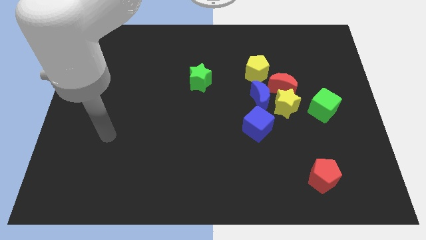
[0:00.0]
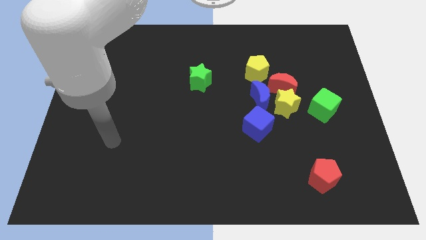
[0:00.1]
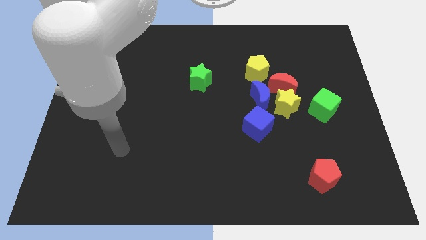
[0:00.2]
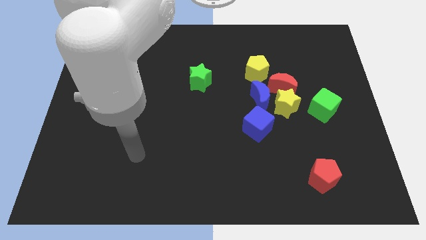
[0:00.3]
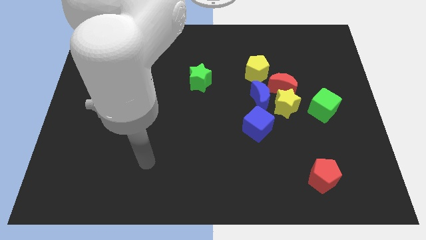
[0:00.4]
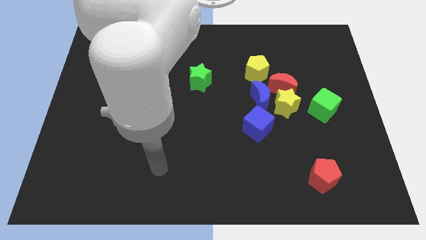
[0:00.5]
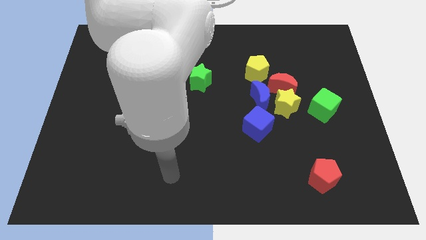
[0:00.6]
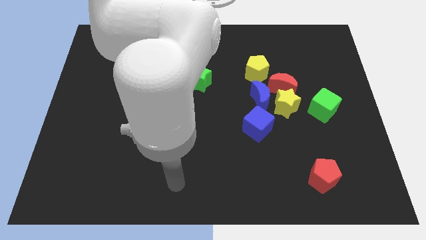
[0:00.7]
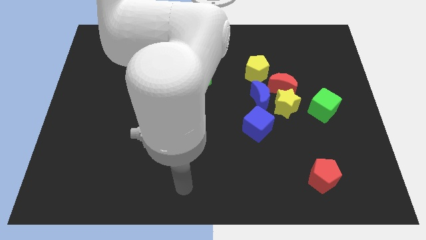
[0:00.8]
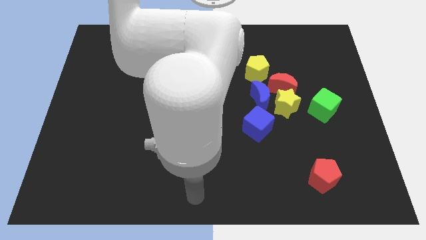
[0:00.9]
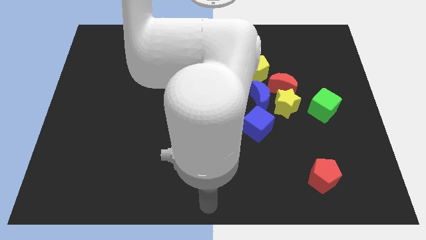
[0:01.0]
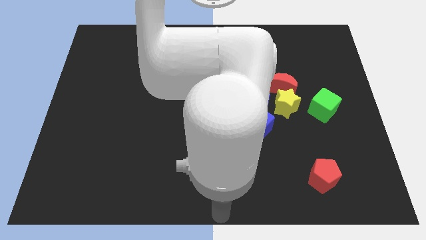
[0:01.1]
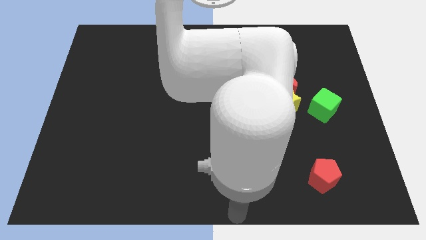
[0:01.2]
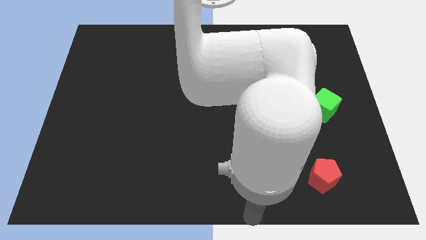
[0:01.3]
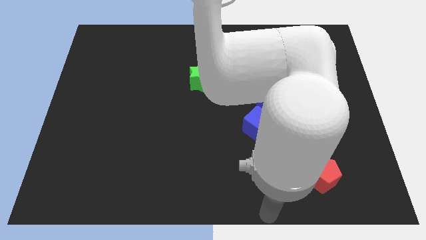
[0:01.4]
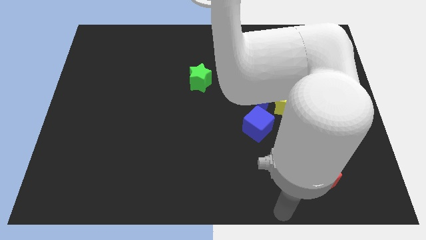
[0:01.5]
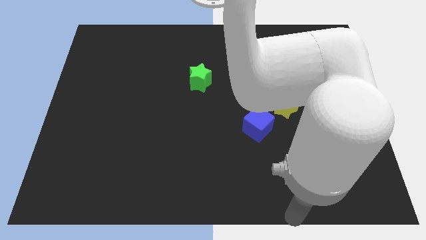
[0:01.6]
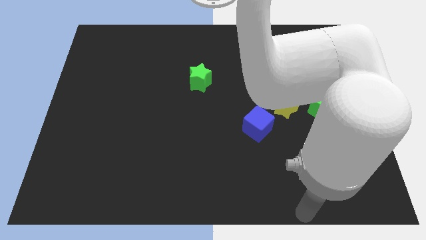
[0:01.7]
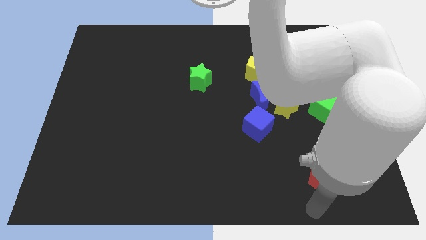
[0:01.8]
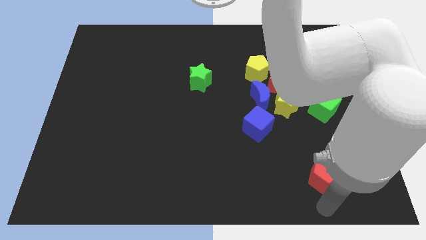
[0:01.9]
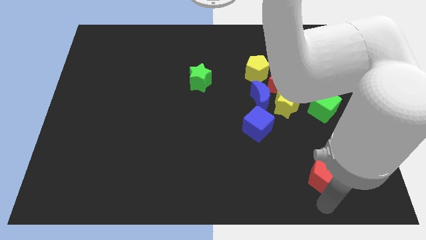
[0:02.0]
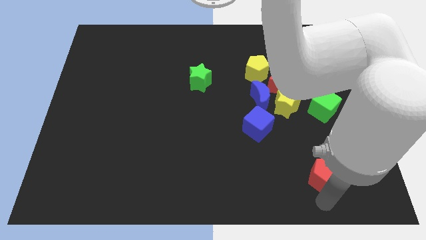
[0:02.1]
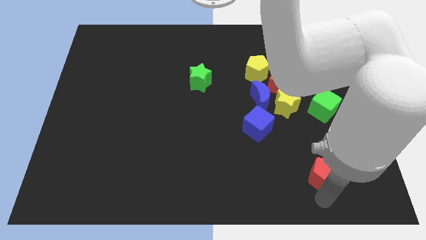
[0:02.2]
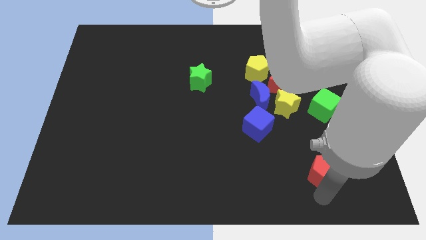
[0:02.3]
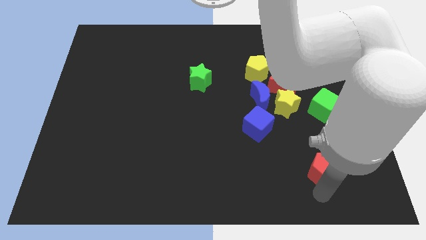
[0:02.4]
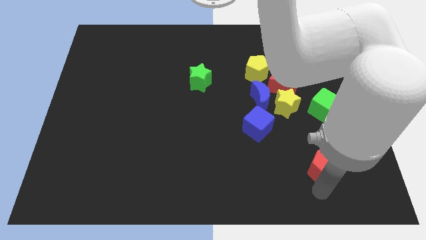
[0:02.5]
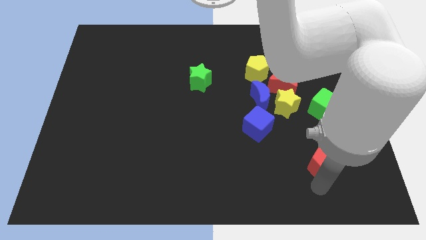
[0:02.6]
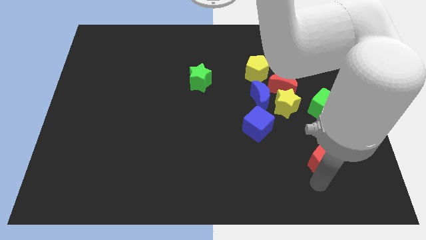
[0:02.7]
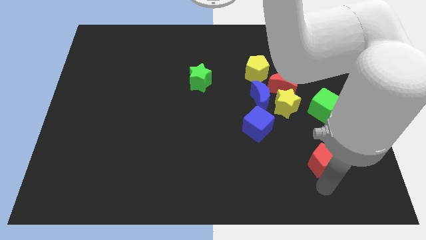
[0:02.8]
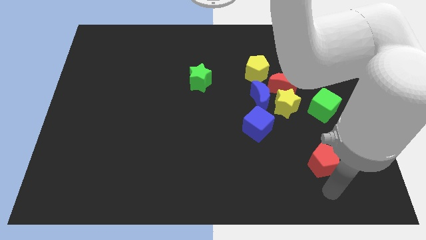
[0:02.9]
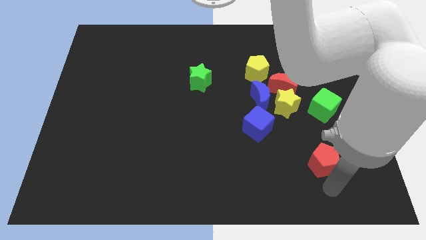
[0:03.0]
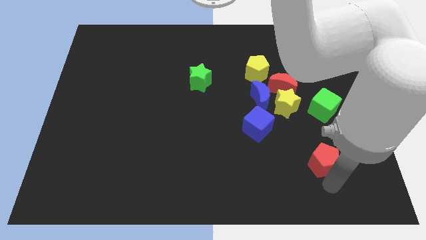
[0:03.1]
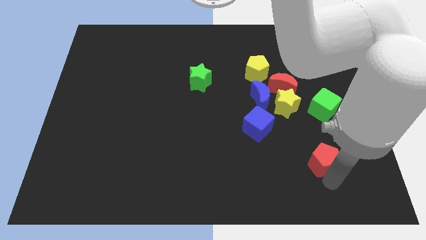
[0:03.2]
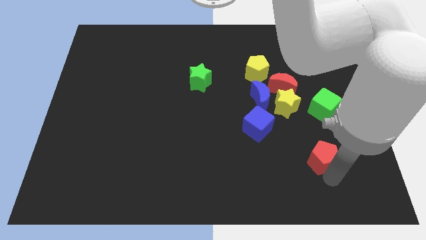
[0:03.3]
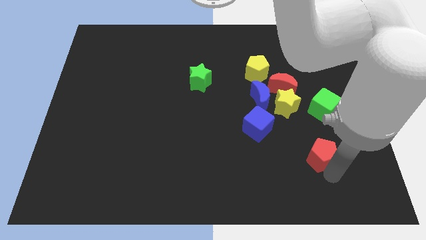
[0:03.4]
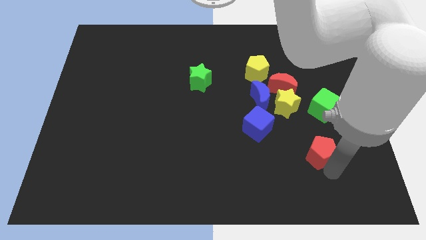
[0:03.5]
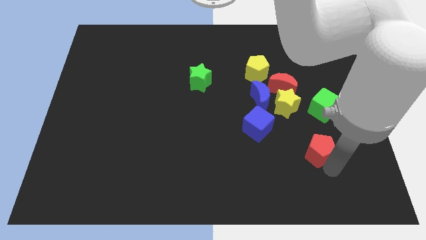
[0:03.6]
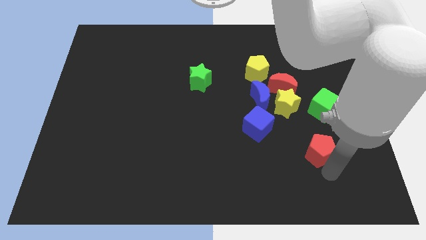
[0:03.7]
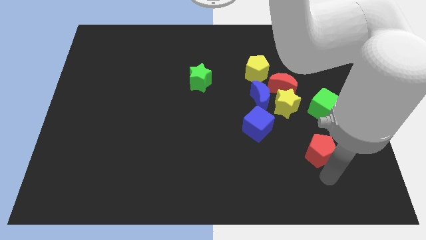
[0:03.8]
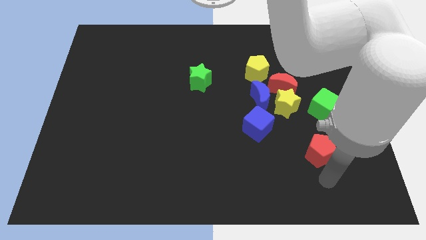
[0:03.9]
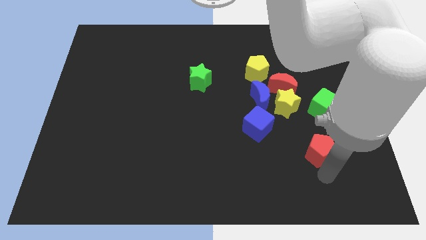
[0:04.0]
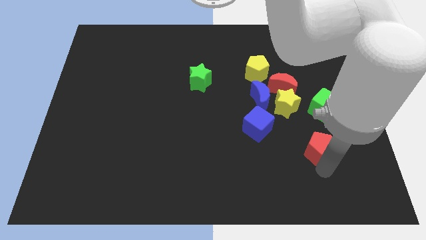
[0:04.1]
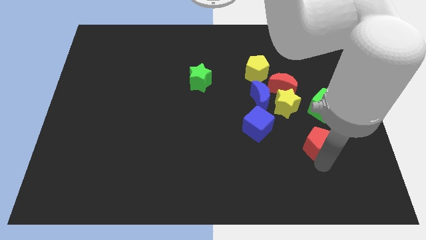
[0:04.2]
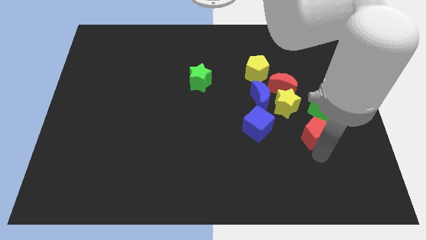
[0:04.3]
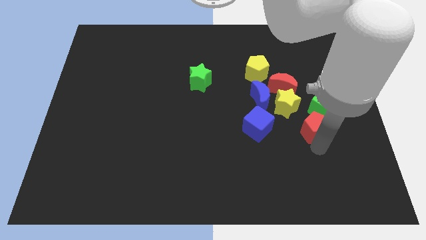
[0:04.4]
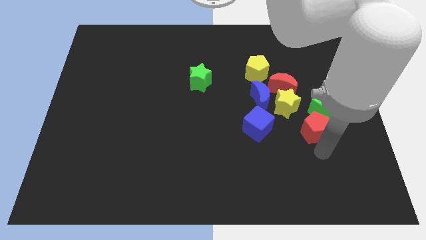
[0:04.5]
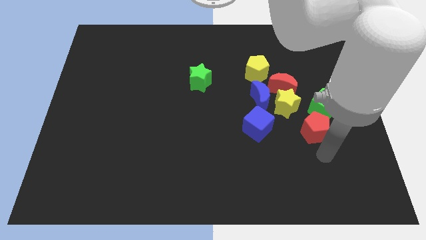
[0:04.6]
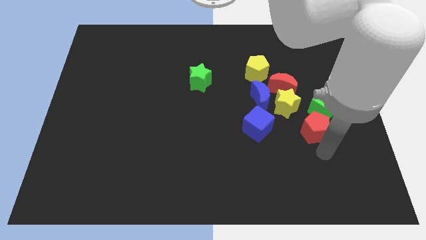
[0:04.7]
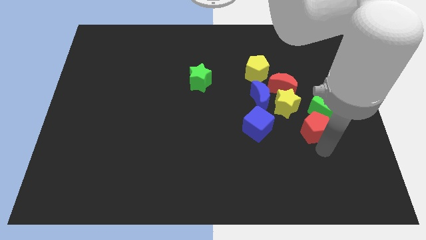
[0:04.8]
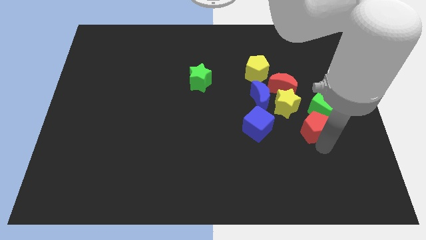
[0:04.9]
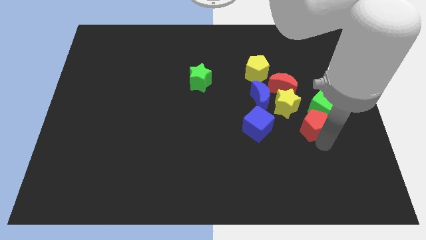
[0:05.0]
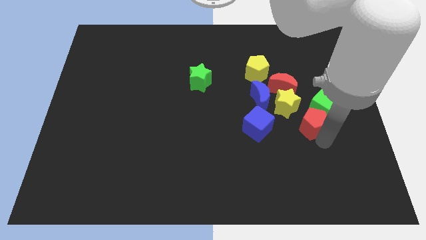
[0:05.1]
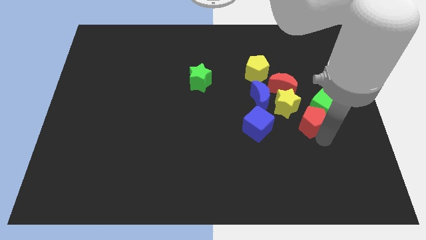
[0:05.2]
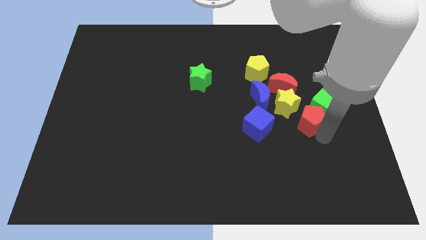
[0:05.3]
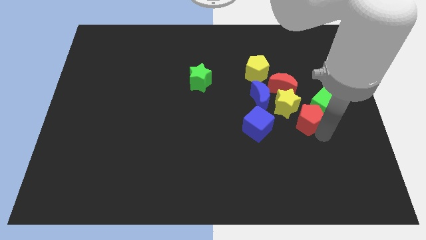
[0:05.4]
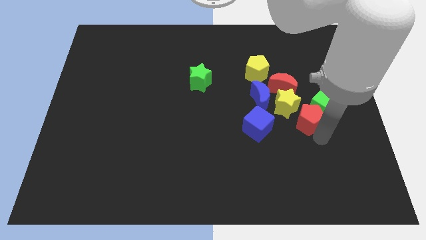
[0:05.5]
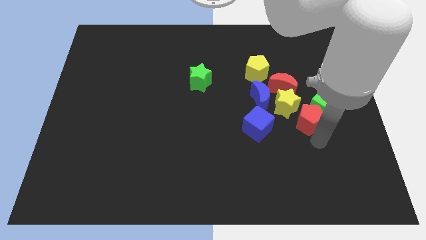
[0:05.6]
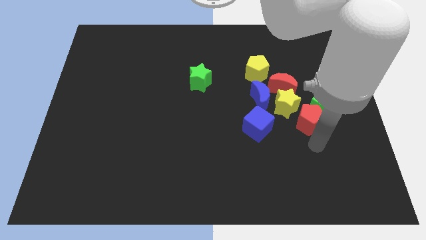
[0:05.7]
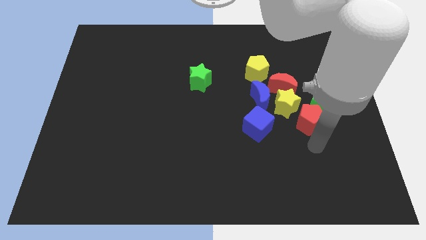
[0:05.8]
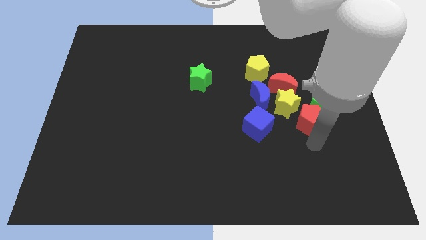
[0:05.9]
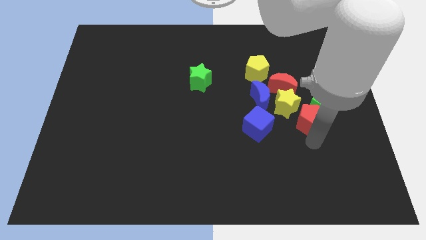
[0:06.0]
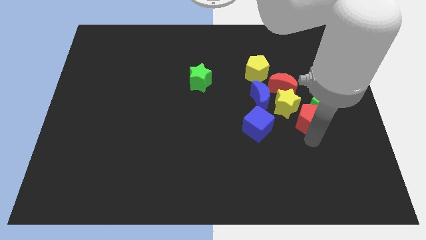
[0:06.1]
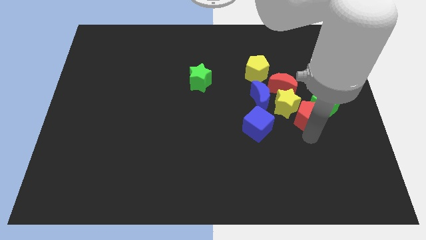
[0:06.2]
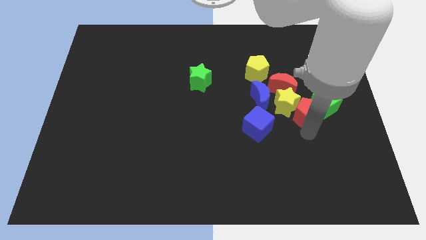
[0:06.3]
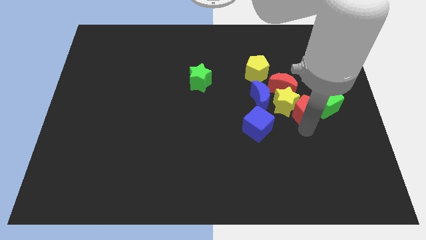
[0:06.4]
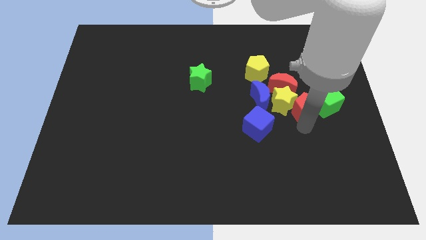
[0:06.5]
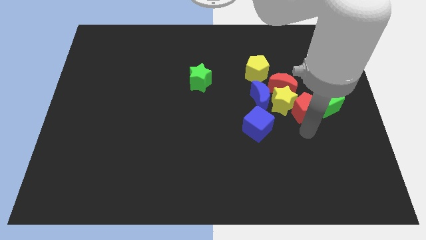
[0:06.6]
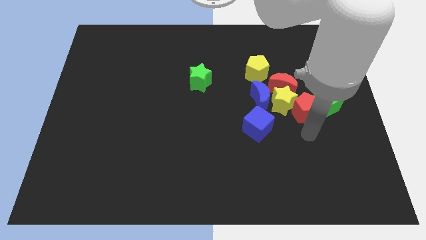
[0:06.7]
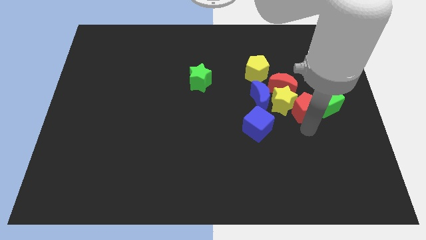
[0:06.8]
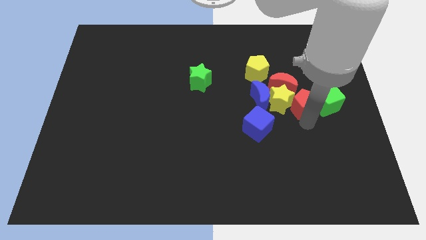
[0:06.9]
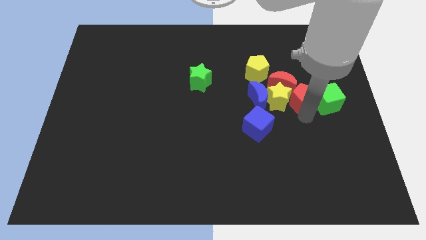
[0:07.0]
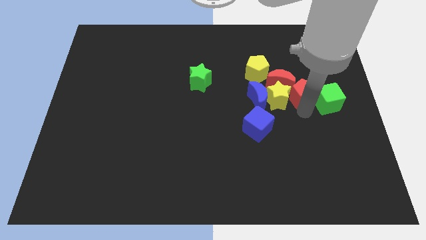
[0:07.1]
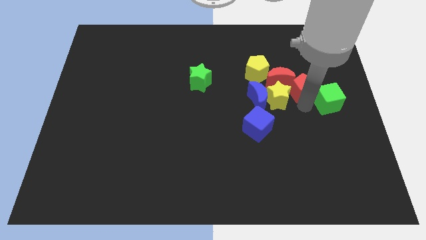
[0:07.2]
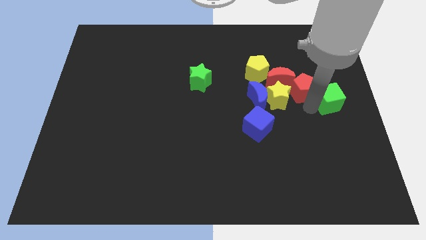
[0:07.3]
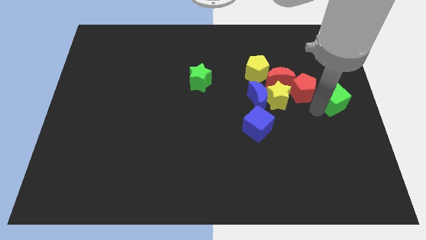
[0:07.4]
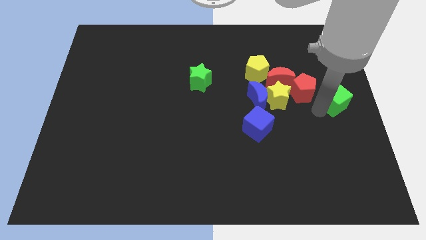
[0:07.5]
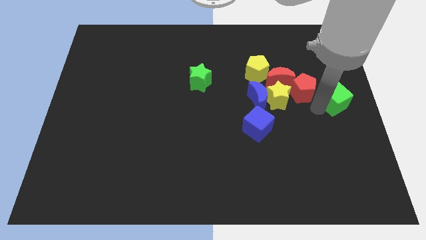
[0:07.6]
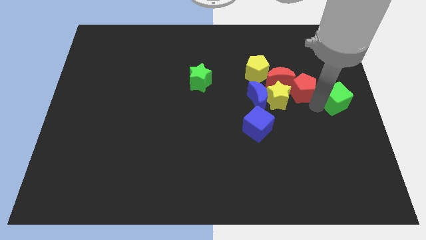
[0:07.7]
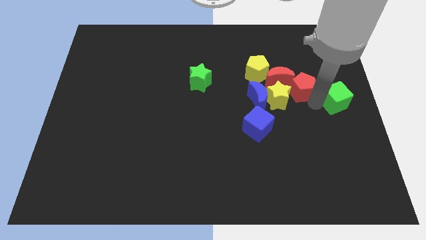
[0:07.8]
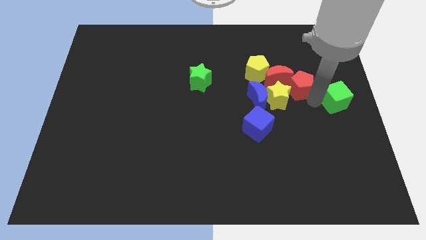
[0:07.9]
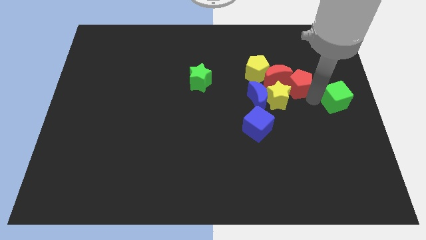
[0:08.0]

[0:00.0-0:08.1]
move the red pentagon diagonally up and to the right of the blue moon
